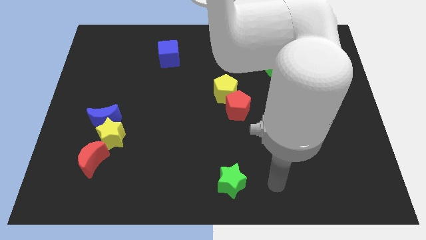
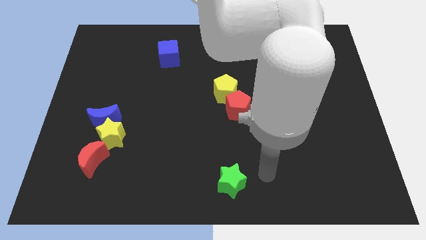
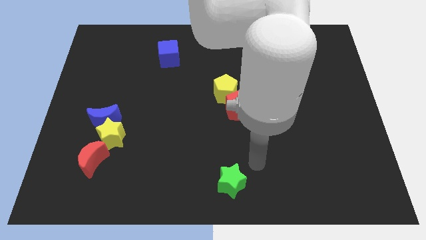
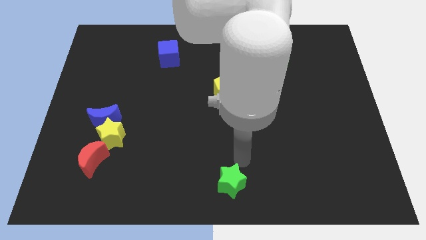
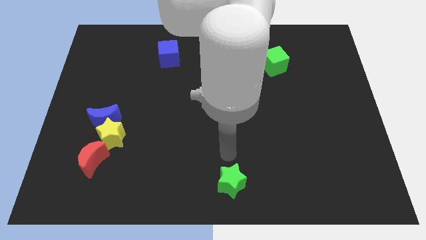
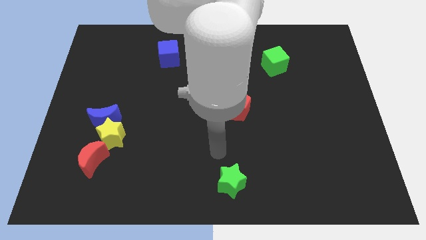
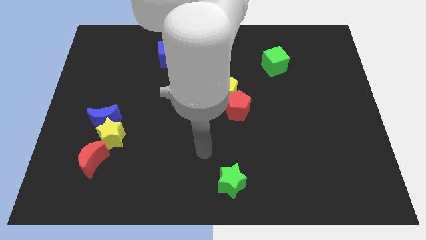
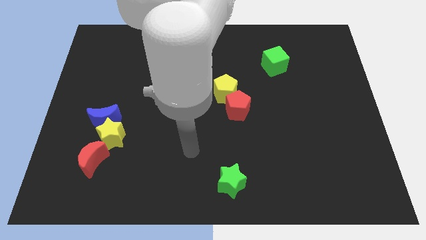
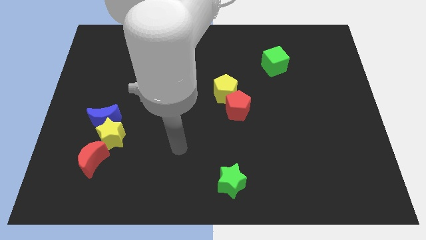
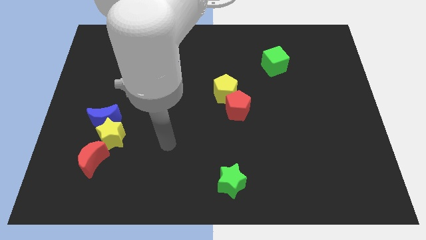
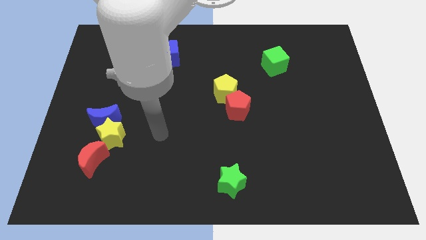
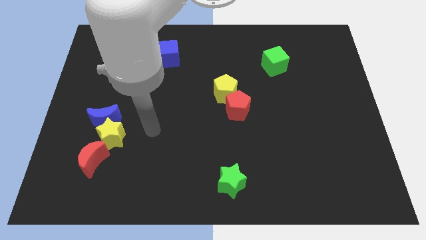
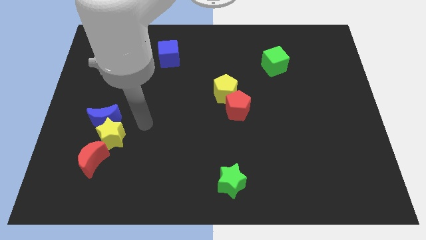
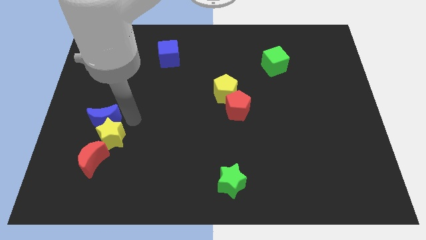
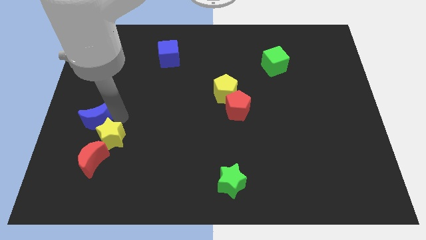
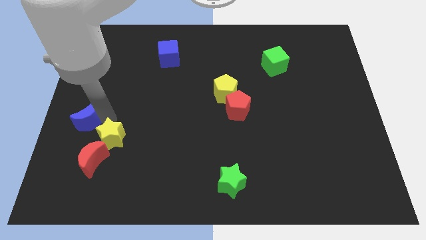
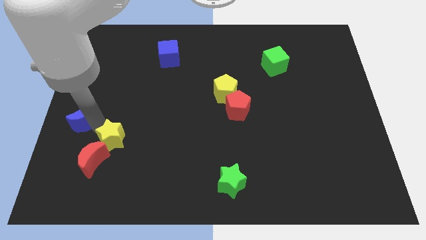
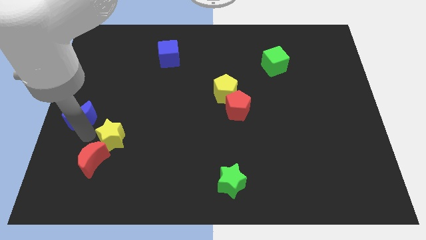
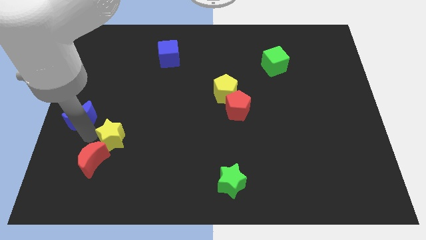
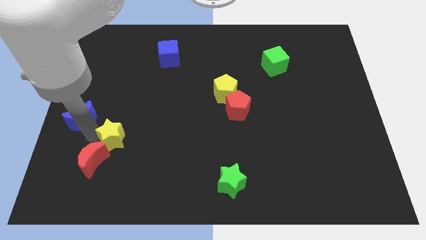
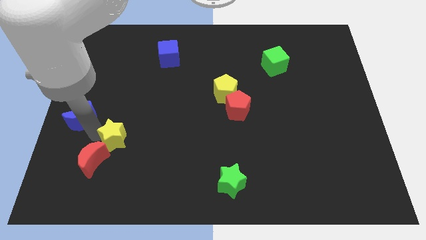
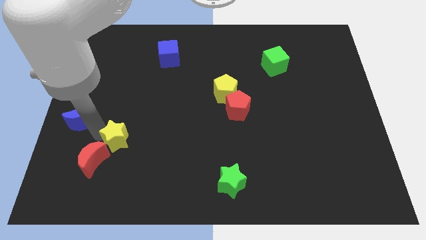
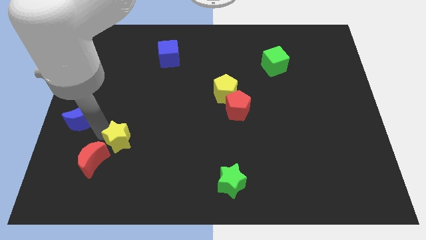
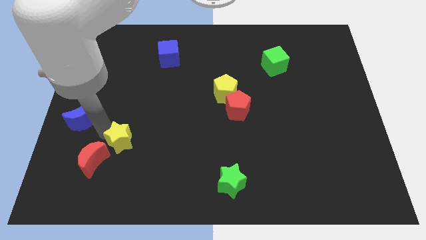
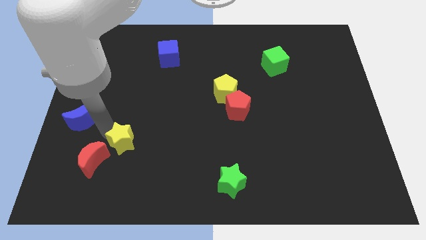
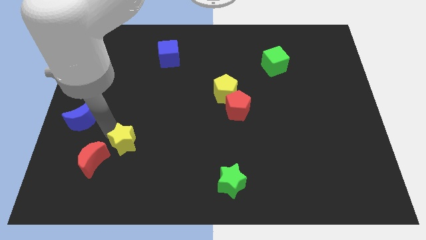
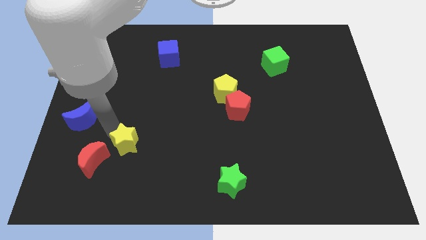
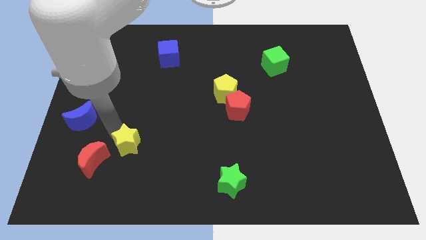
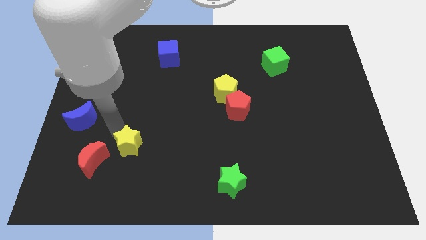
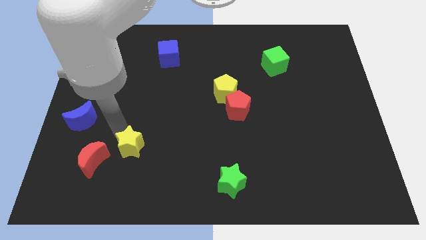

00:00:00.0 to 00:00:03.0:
separate the yellow star from the blue moon and red moon

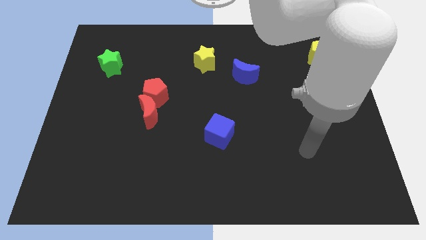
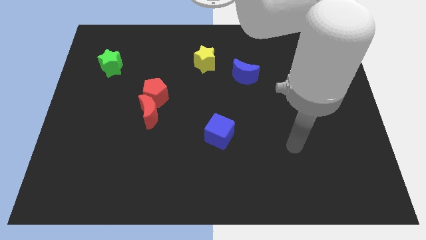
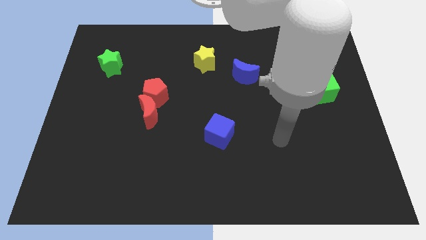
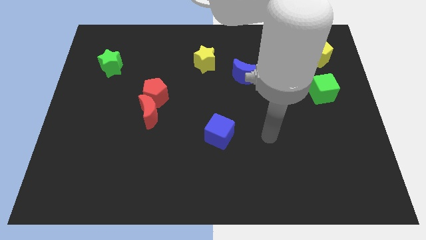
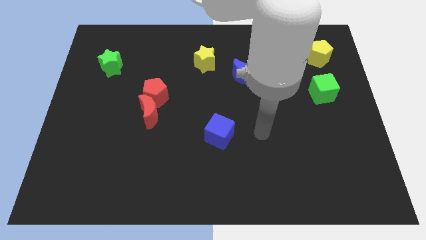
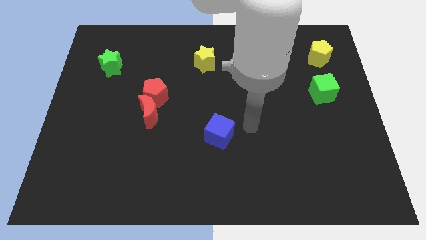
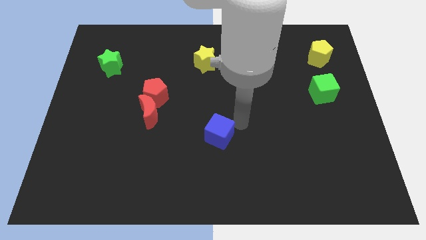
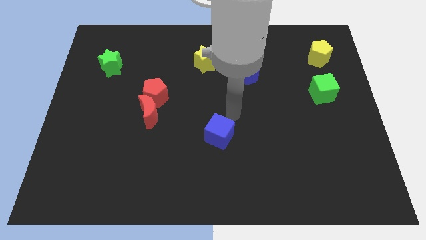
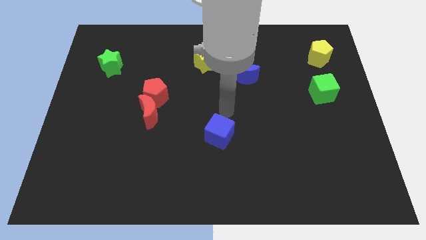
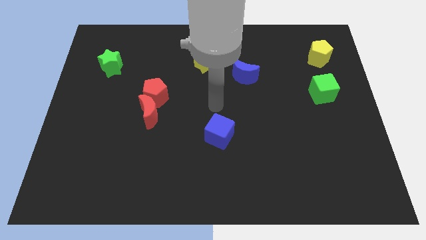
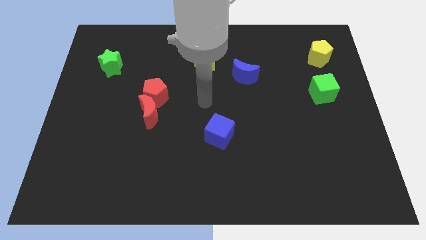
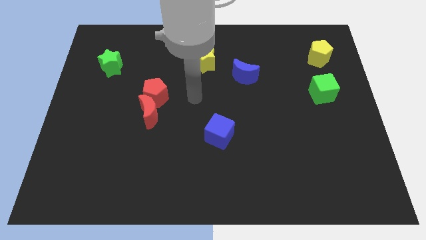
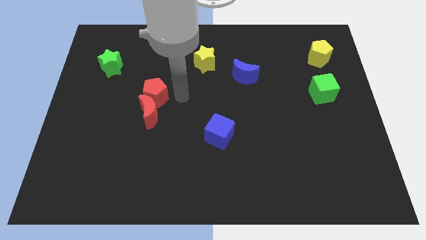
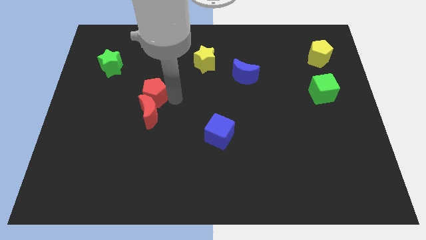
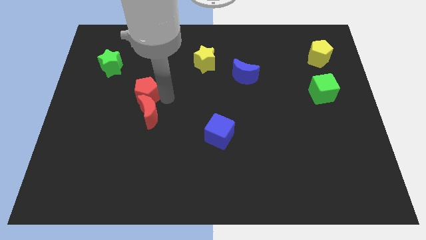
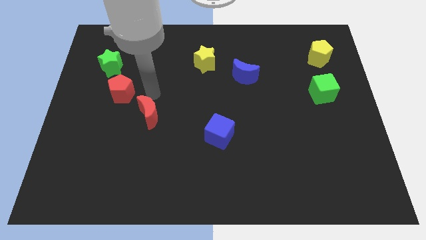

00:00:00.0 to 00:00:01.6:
separate the red moon from the red pentagon

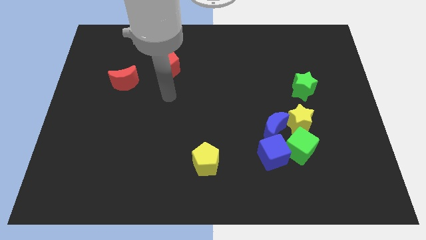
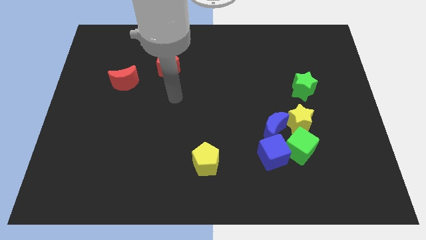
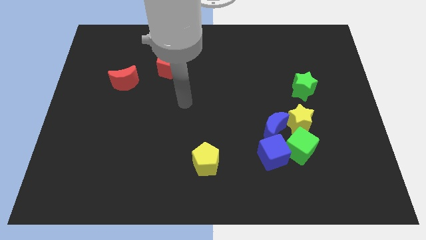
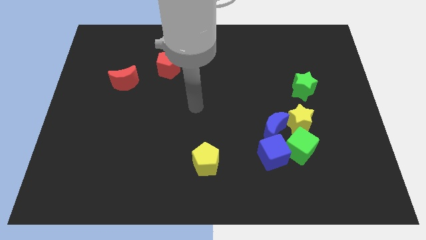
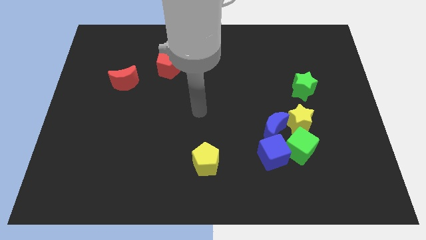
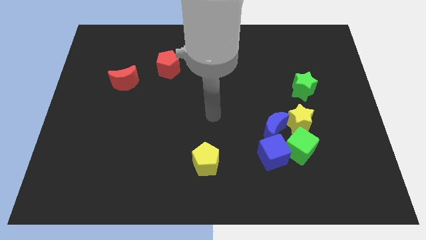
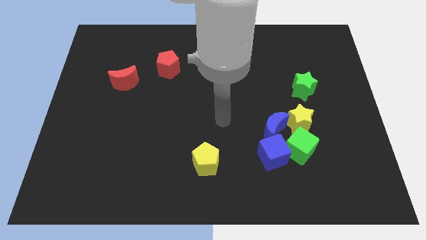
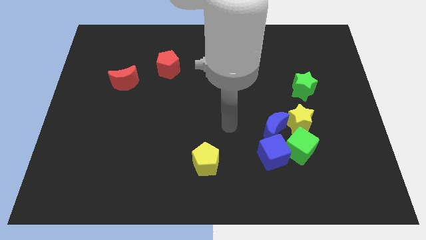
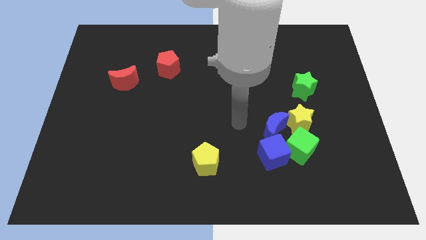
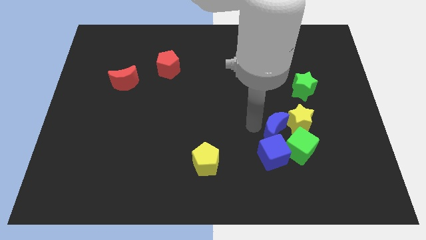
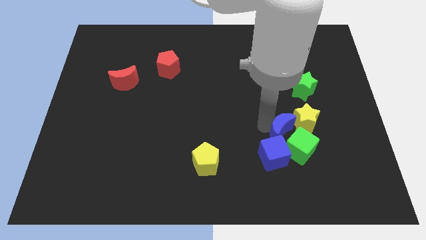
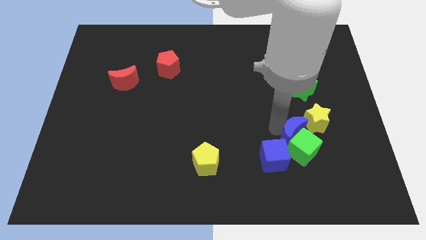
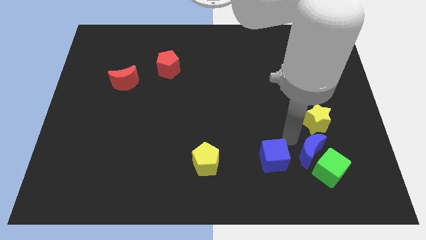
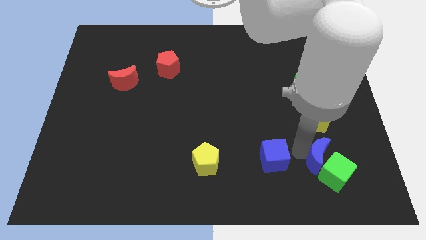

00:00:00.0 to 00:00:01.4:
separate the blue cube from the green cube and blue moon

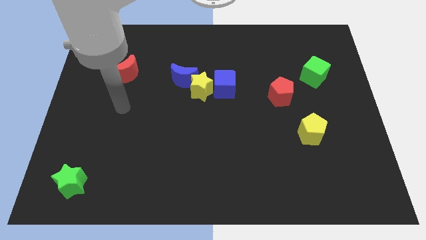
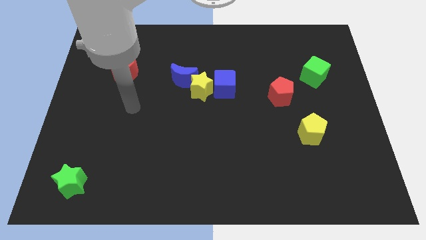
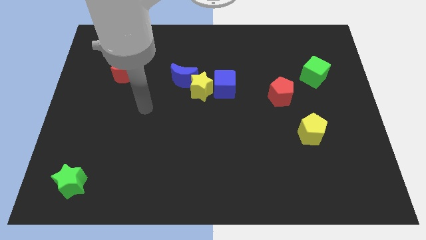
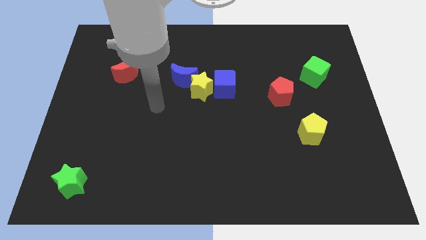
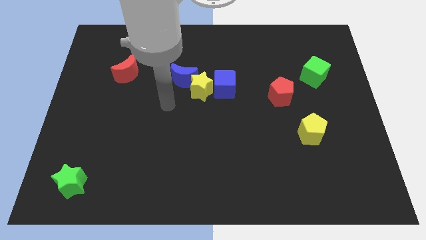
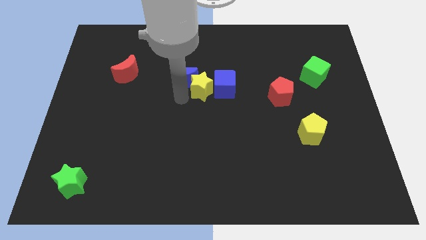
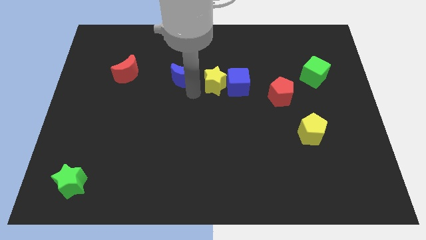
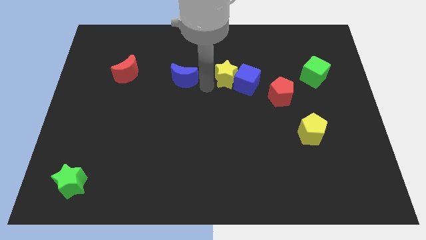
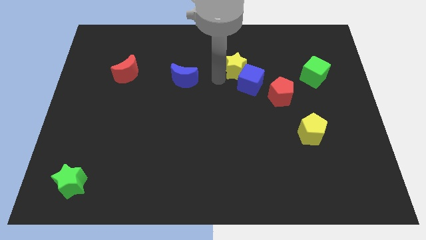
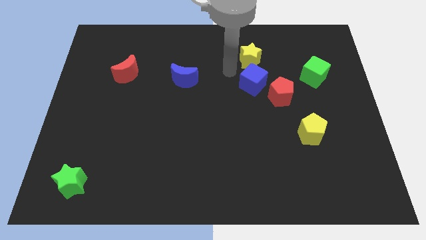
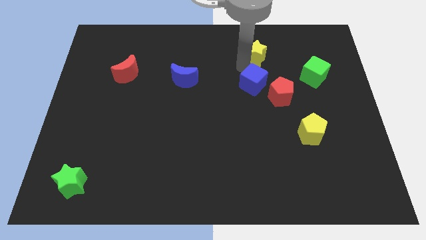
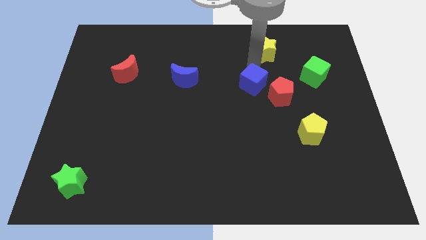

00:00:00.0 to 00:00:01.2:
move the blue cube away from the yellow star

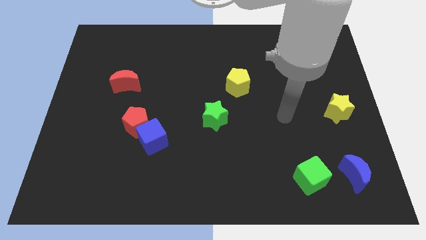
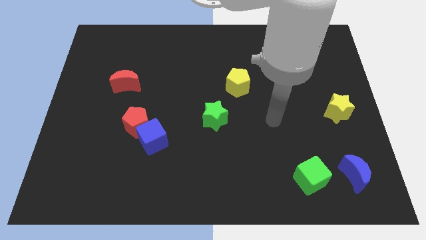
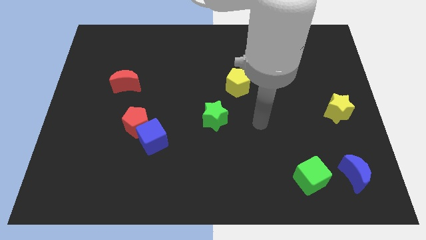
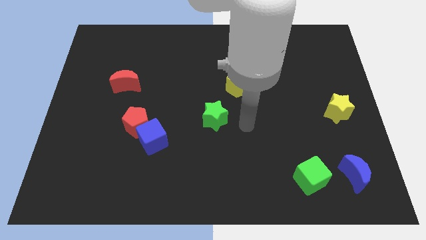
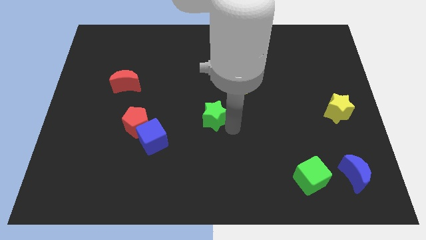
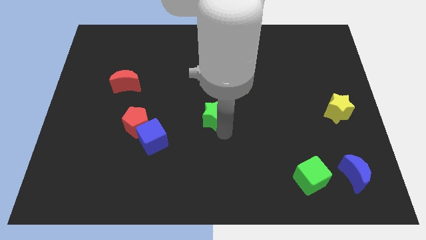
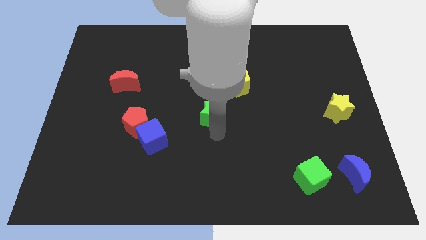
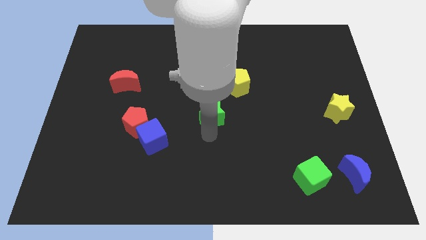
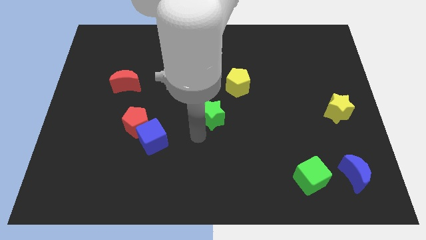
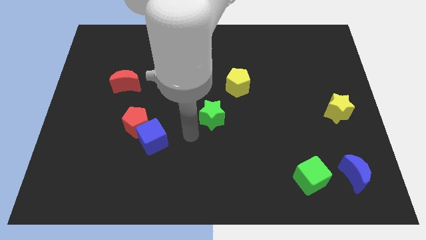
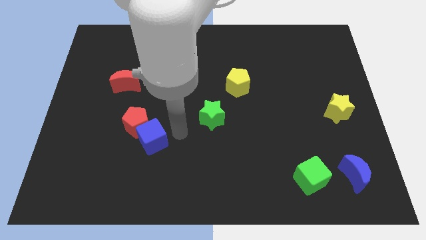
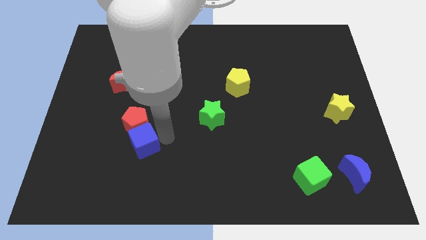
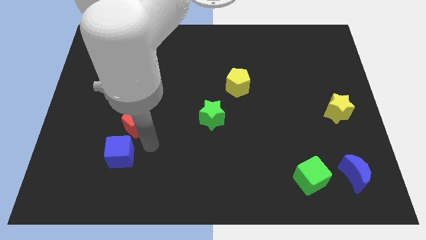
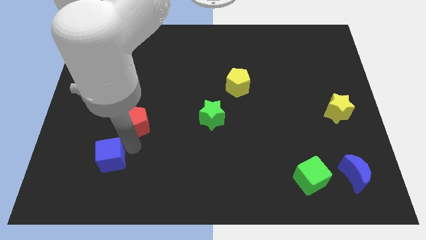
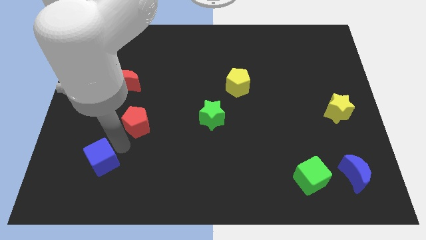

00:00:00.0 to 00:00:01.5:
pull the red pentagon apart from the blue cube

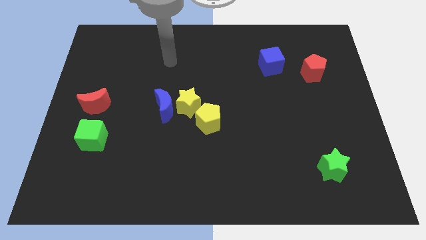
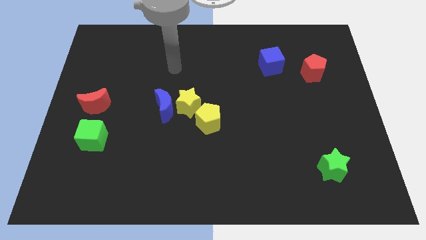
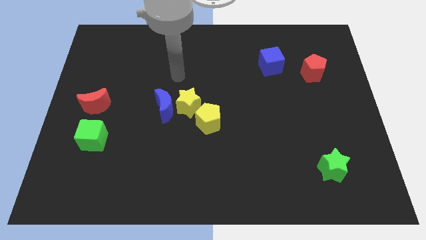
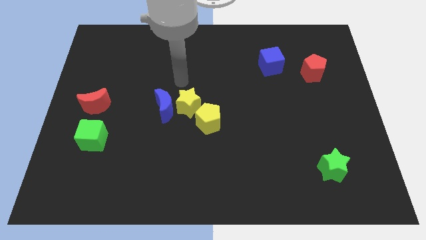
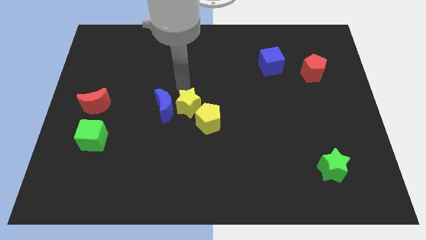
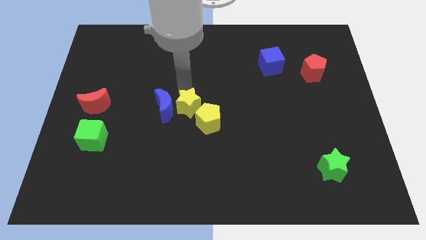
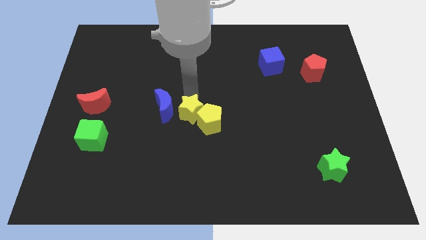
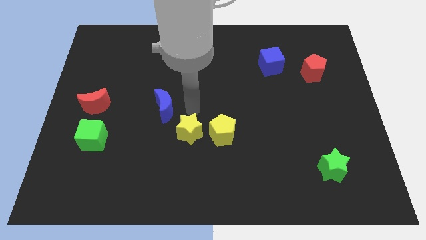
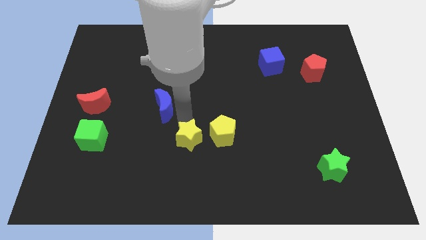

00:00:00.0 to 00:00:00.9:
separate the blue moon from the yellow star
